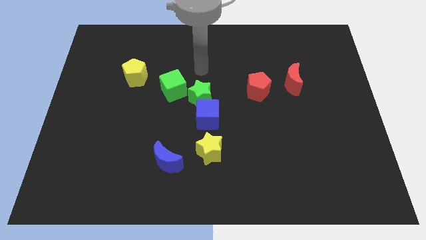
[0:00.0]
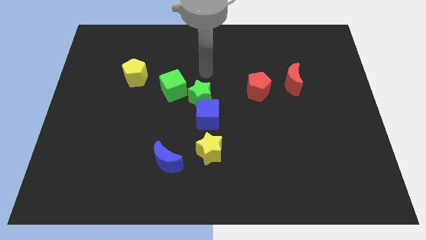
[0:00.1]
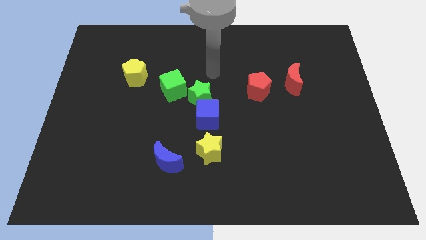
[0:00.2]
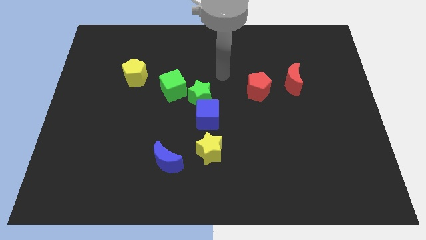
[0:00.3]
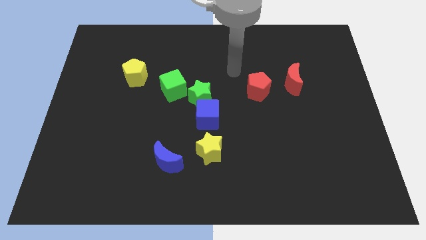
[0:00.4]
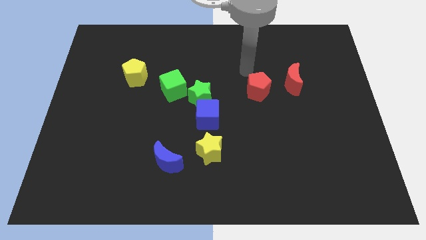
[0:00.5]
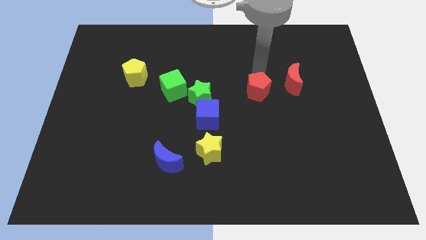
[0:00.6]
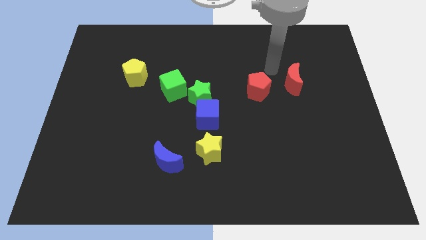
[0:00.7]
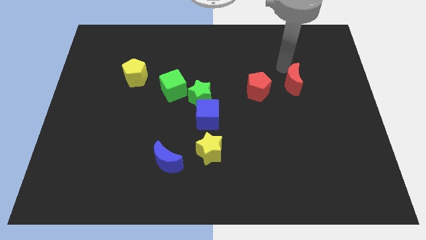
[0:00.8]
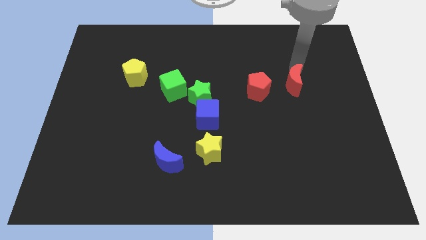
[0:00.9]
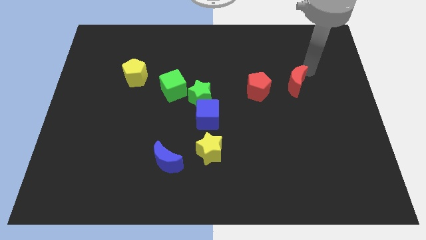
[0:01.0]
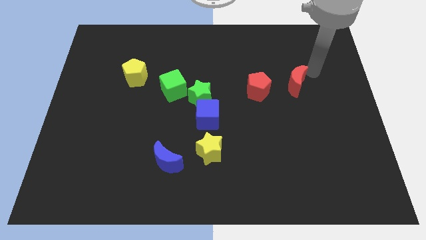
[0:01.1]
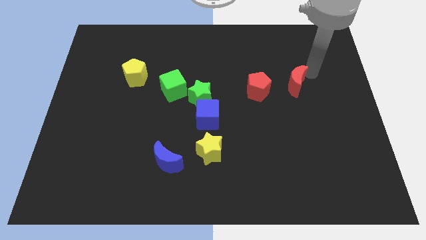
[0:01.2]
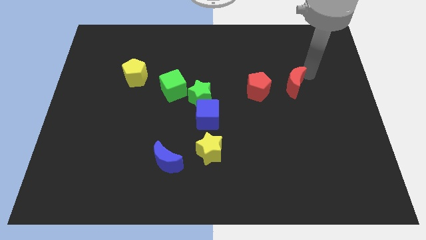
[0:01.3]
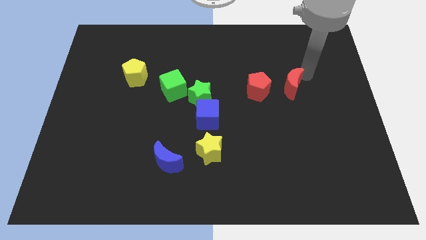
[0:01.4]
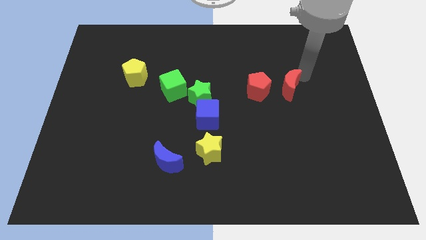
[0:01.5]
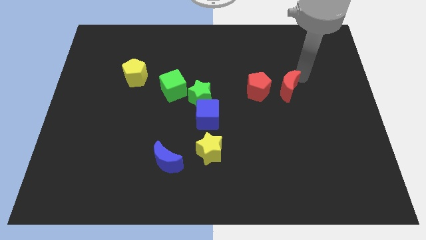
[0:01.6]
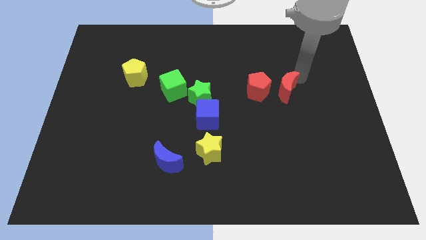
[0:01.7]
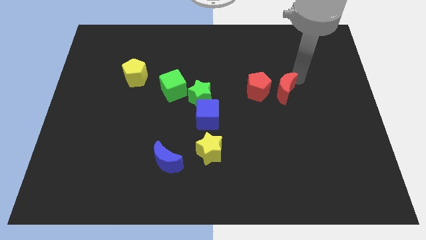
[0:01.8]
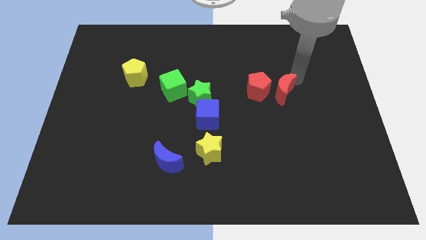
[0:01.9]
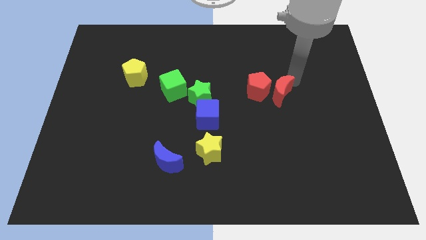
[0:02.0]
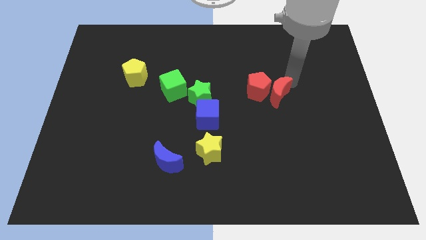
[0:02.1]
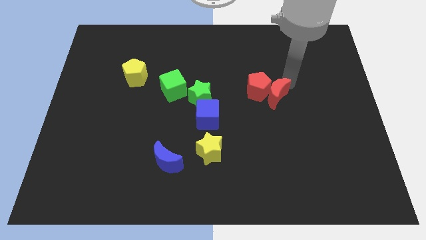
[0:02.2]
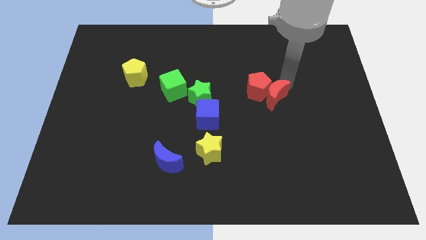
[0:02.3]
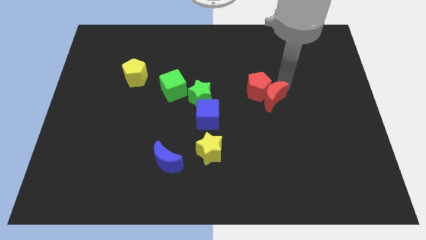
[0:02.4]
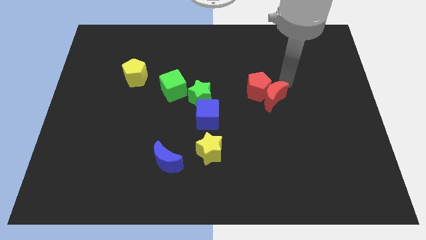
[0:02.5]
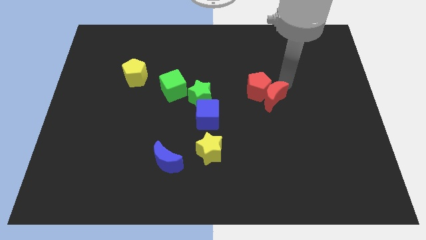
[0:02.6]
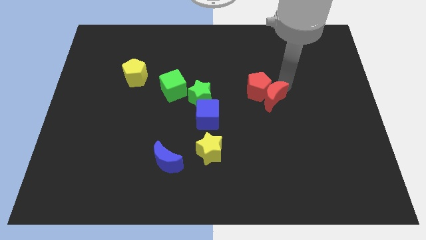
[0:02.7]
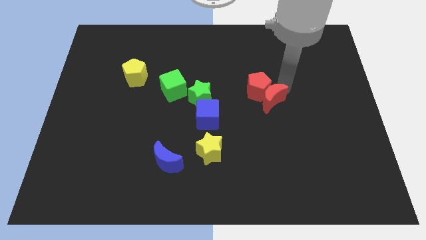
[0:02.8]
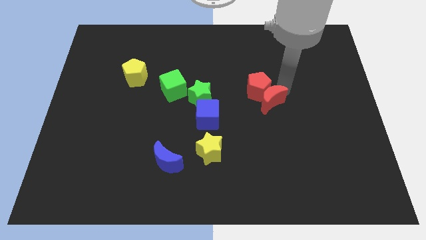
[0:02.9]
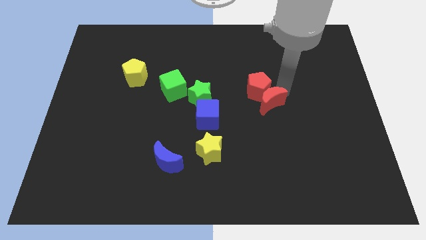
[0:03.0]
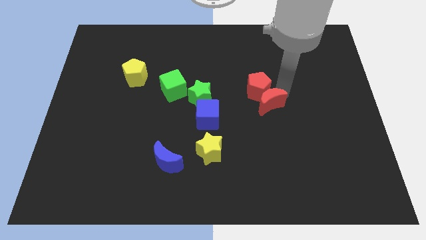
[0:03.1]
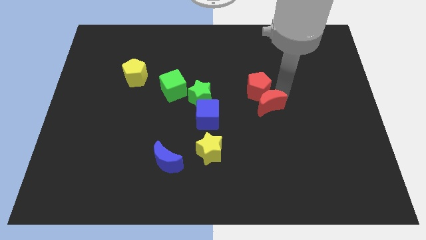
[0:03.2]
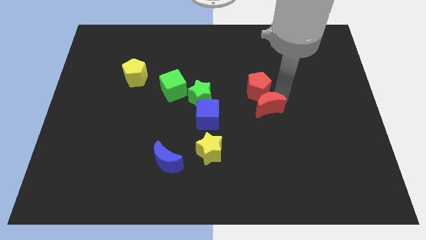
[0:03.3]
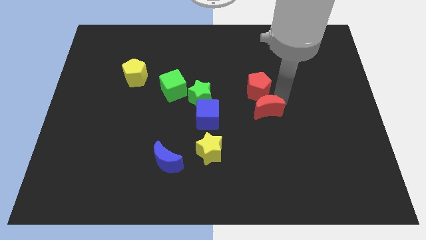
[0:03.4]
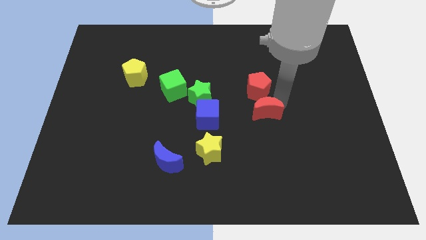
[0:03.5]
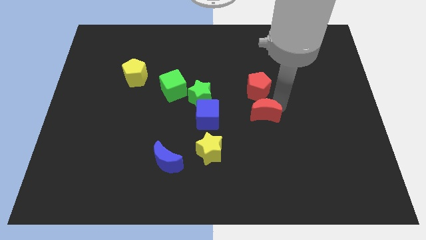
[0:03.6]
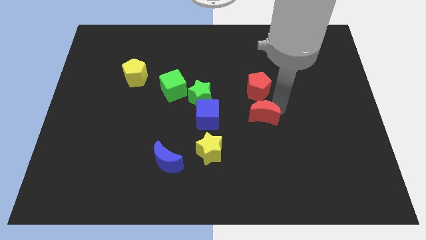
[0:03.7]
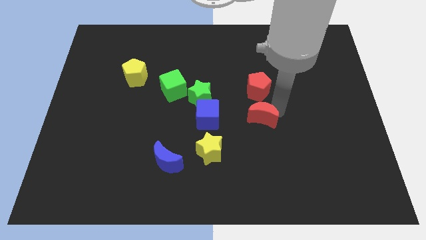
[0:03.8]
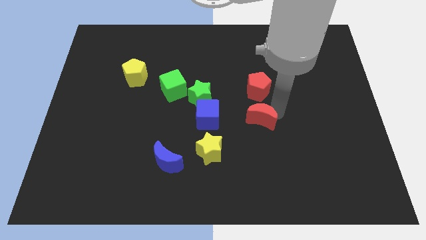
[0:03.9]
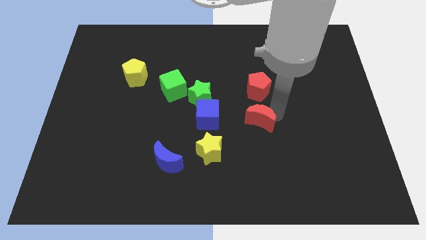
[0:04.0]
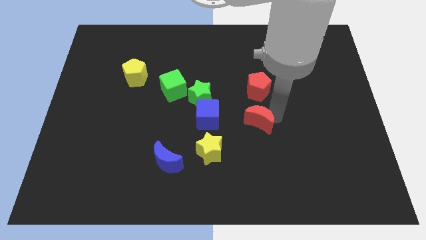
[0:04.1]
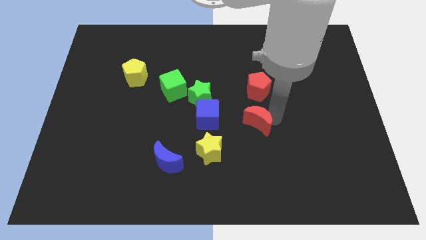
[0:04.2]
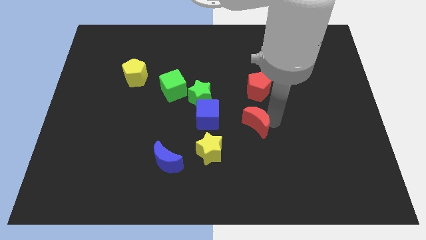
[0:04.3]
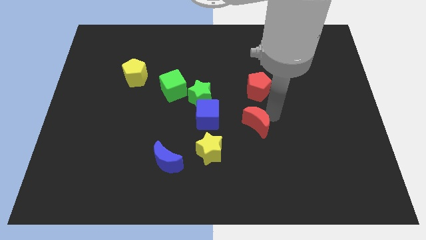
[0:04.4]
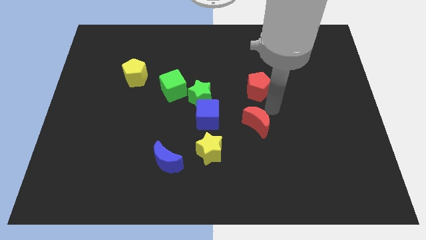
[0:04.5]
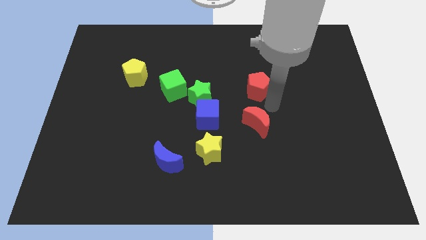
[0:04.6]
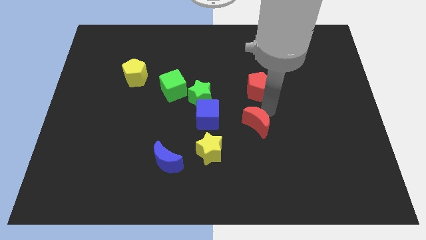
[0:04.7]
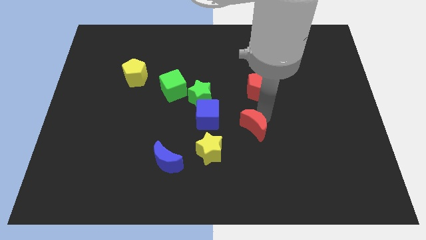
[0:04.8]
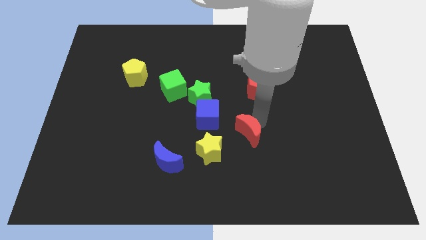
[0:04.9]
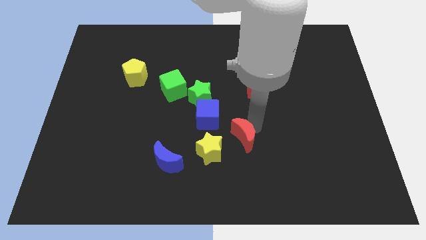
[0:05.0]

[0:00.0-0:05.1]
slide the red moon downwards and to the left diagonally

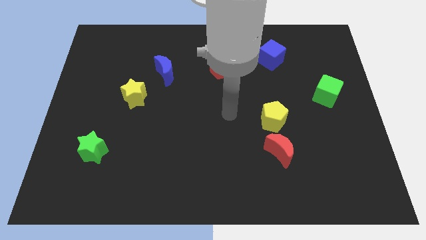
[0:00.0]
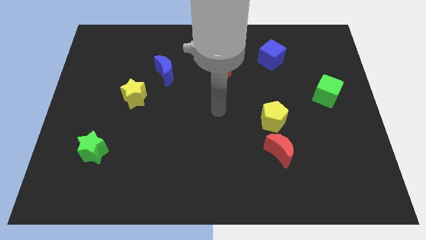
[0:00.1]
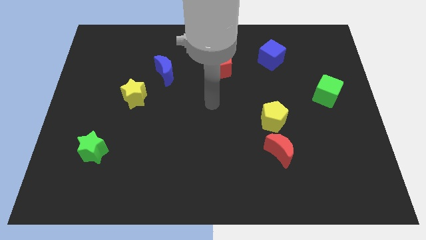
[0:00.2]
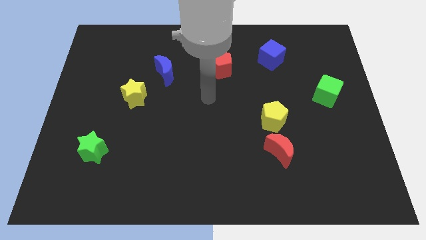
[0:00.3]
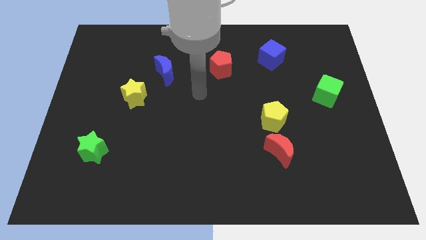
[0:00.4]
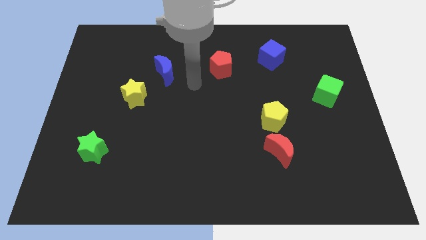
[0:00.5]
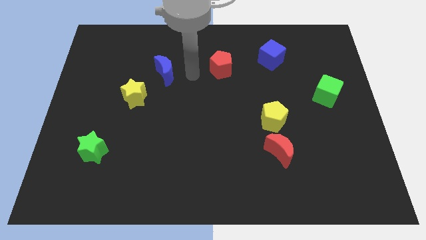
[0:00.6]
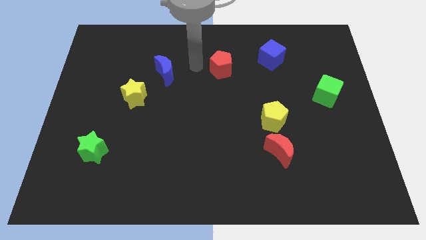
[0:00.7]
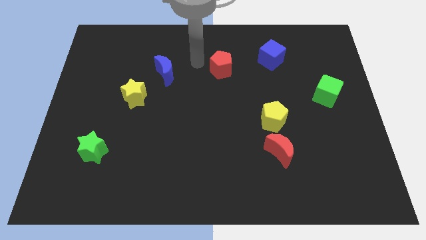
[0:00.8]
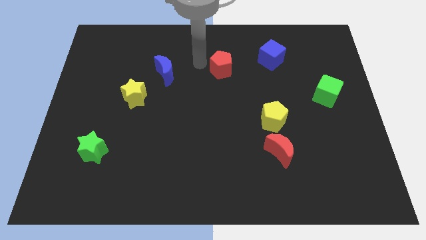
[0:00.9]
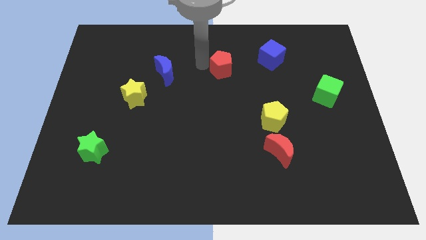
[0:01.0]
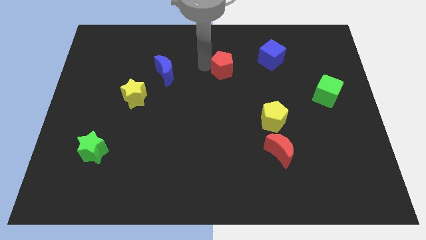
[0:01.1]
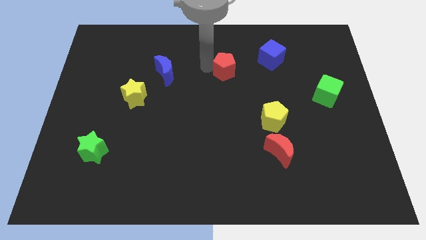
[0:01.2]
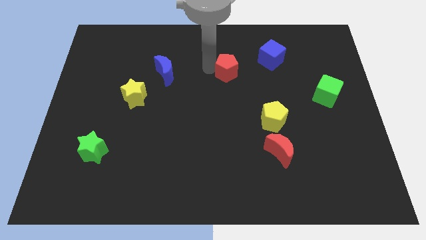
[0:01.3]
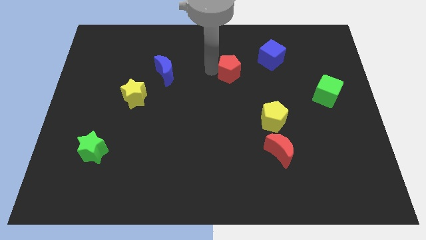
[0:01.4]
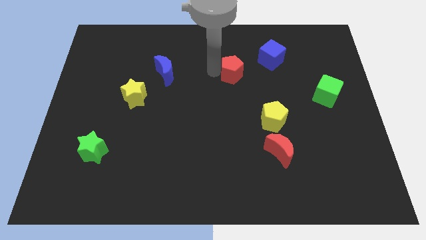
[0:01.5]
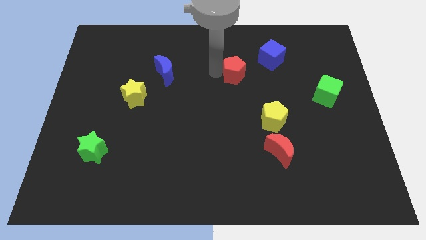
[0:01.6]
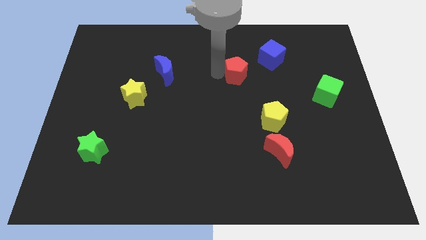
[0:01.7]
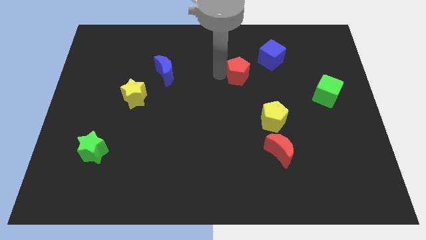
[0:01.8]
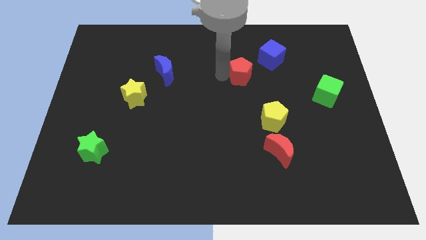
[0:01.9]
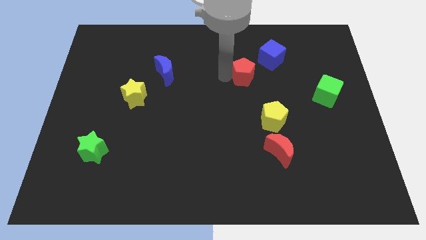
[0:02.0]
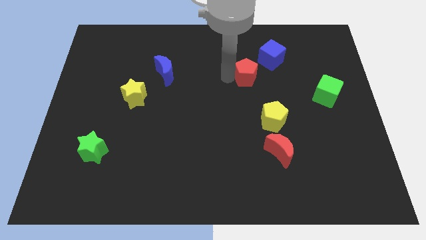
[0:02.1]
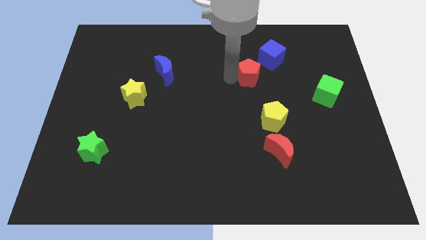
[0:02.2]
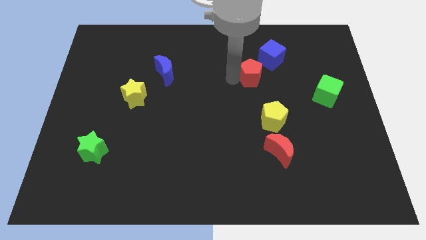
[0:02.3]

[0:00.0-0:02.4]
slightly move the red pentagon to the right

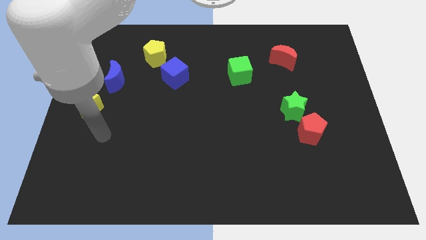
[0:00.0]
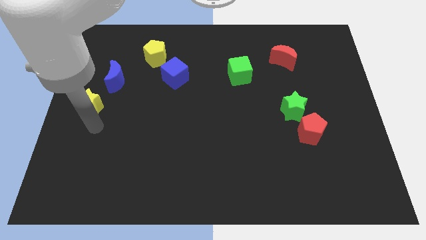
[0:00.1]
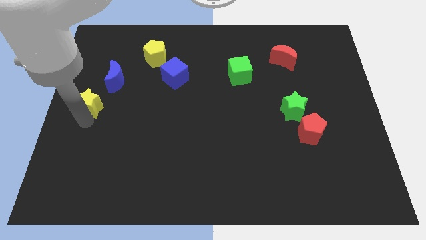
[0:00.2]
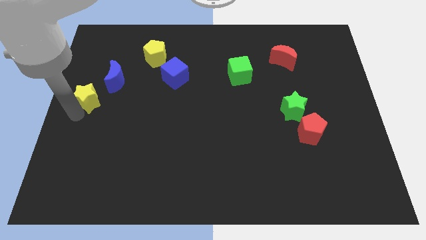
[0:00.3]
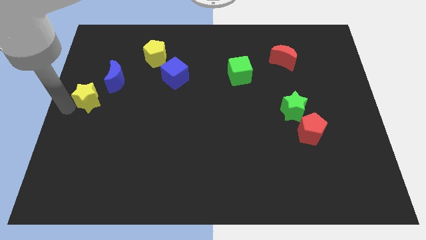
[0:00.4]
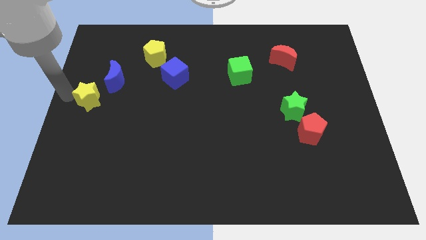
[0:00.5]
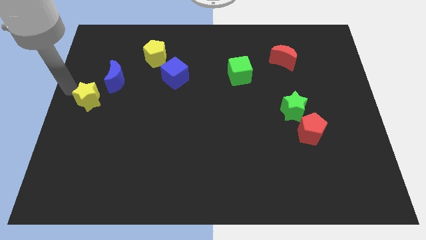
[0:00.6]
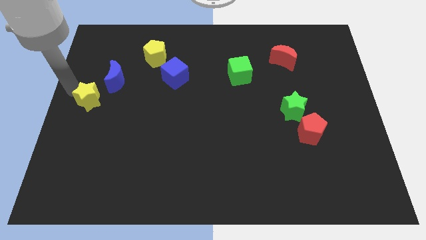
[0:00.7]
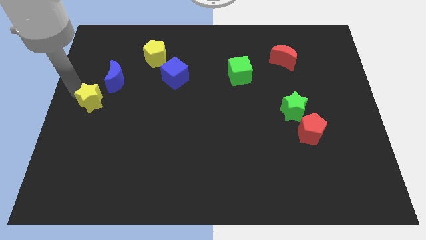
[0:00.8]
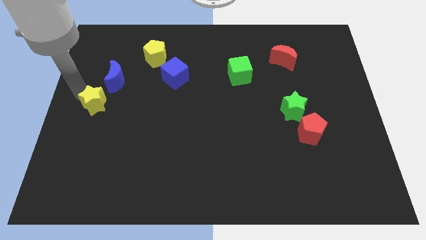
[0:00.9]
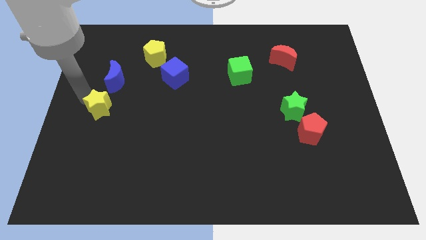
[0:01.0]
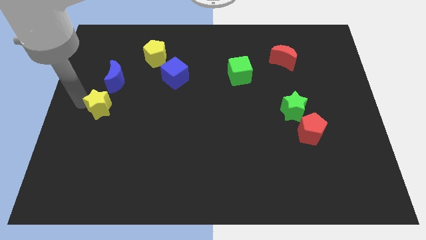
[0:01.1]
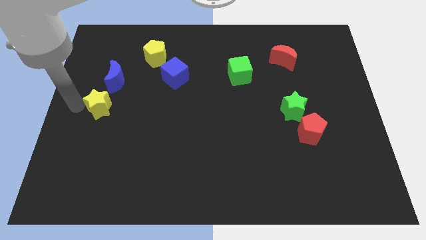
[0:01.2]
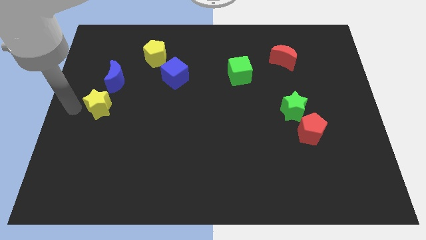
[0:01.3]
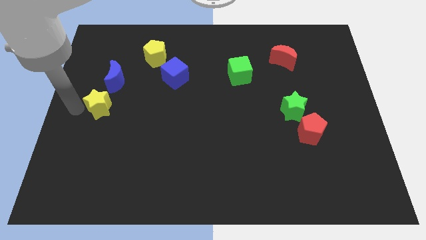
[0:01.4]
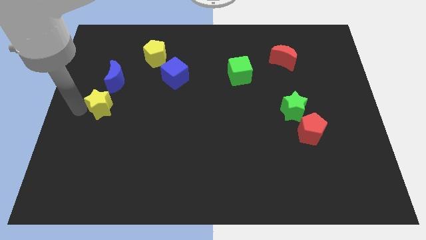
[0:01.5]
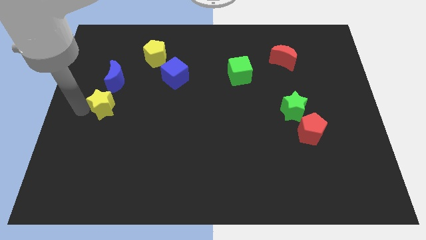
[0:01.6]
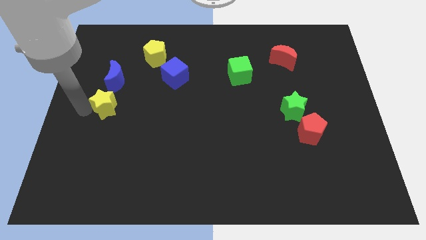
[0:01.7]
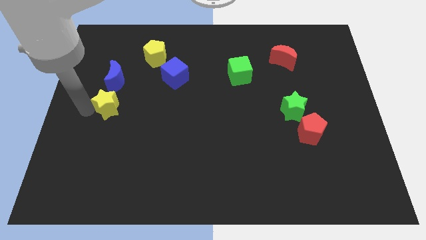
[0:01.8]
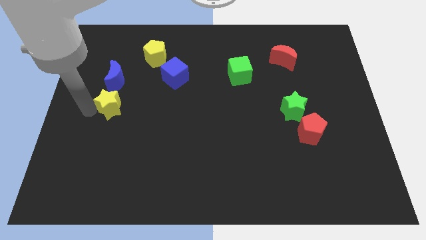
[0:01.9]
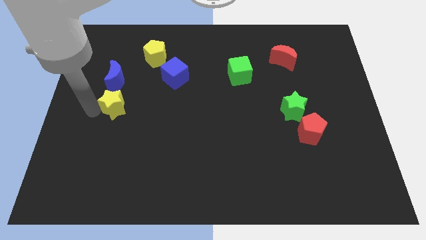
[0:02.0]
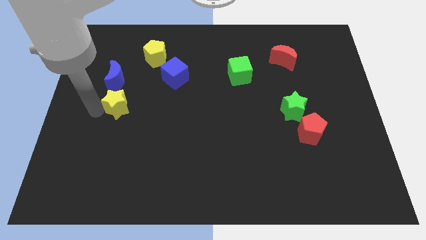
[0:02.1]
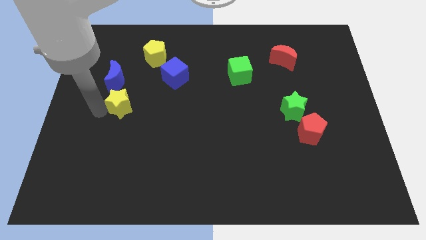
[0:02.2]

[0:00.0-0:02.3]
slightly slide the yellow star to the right
